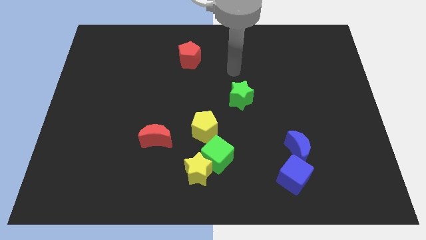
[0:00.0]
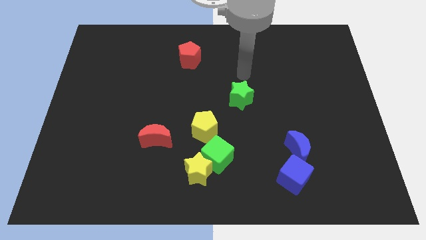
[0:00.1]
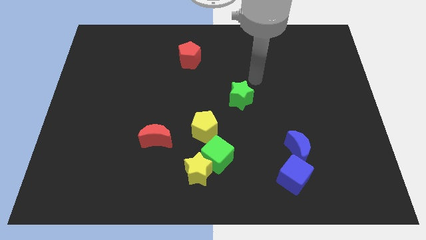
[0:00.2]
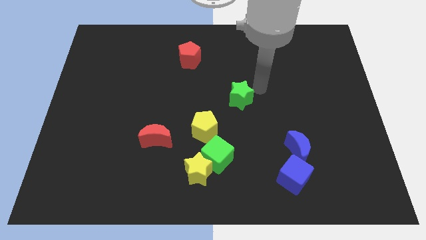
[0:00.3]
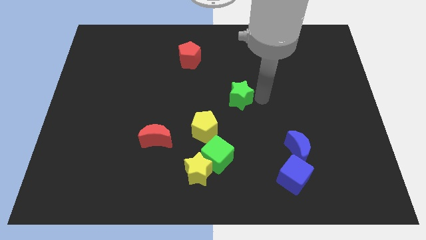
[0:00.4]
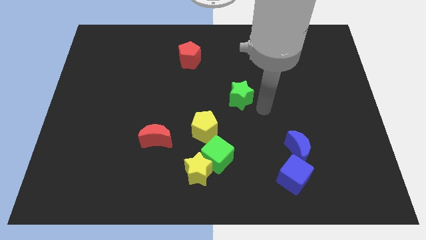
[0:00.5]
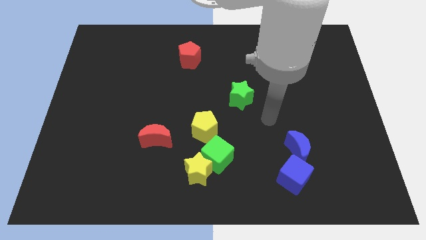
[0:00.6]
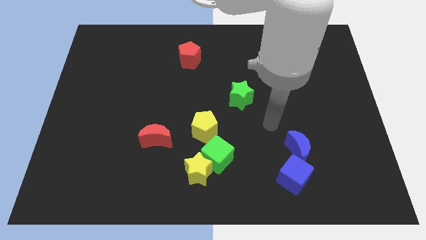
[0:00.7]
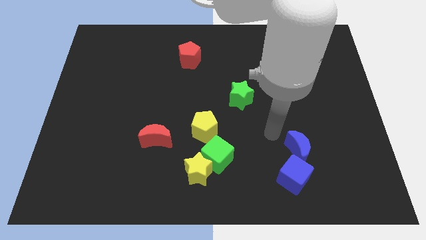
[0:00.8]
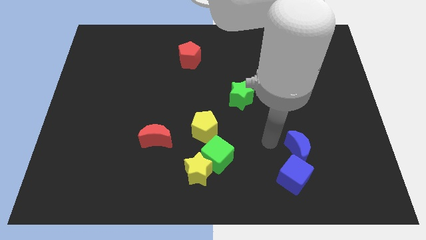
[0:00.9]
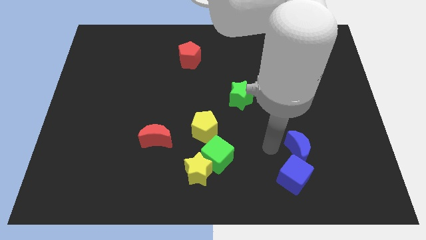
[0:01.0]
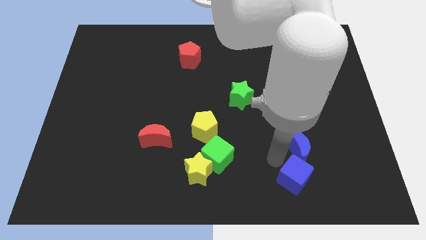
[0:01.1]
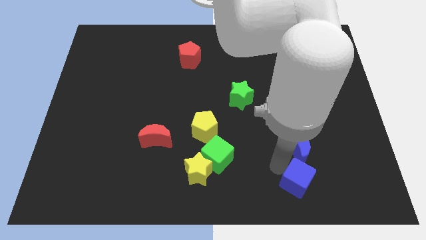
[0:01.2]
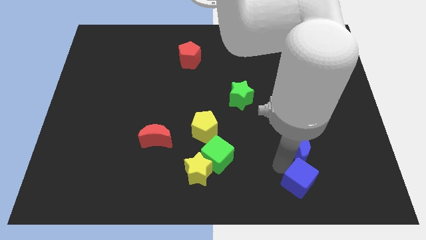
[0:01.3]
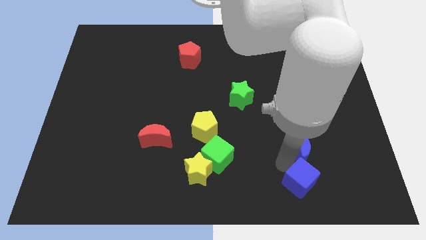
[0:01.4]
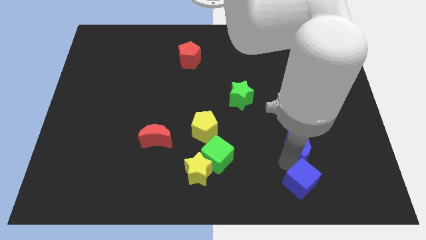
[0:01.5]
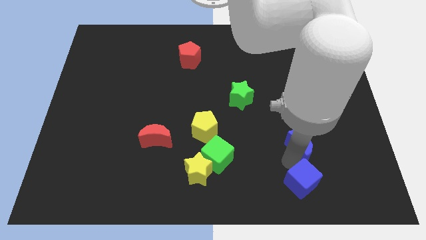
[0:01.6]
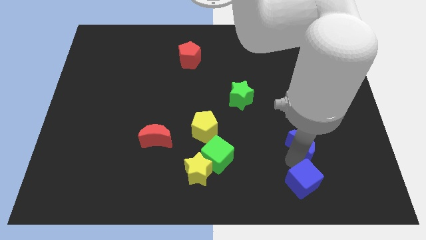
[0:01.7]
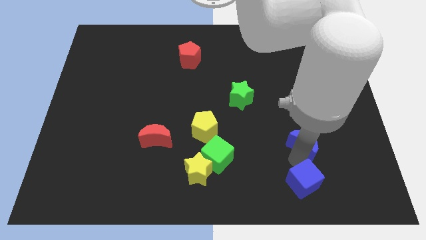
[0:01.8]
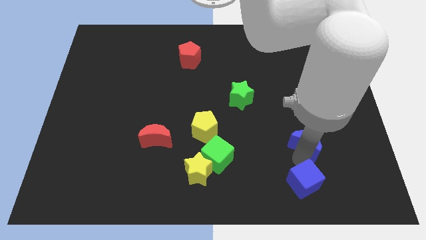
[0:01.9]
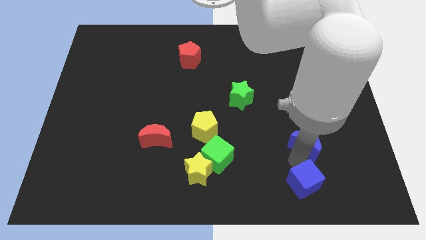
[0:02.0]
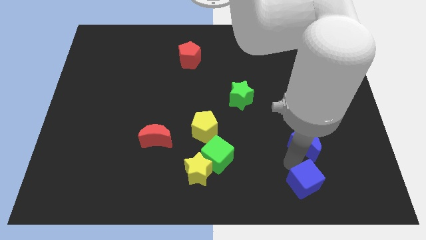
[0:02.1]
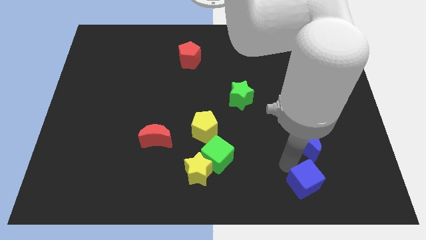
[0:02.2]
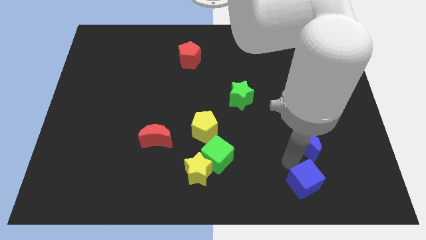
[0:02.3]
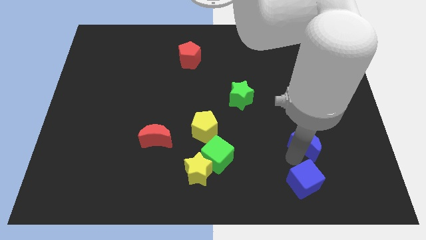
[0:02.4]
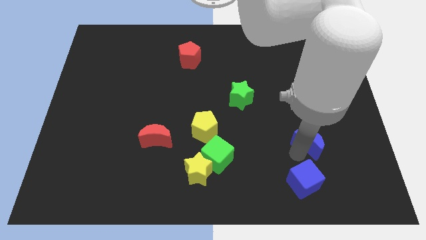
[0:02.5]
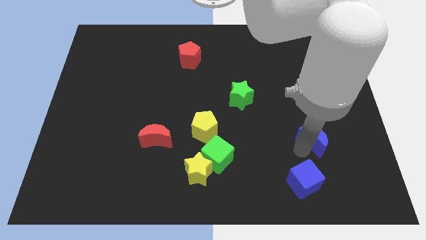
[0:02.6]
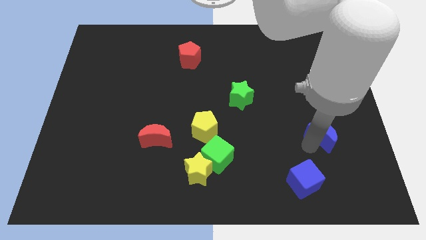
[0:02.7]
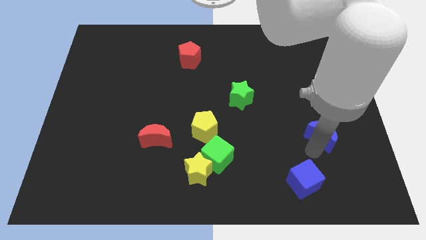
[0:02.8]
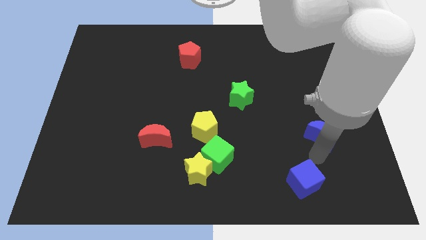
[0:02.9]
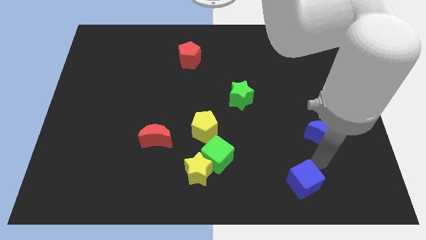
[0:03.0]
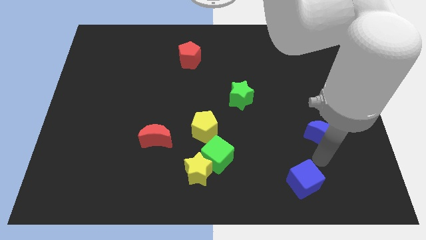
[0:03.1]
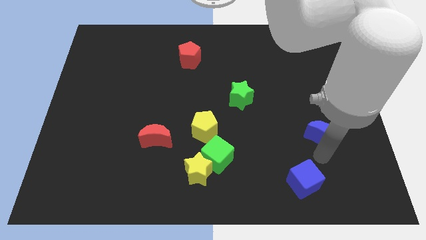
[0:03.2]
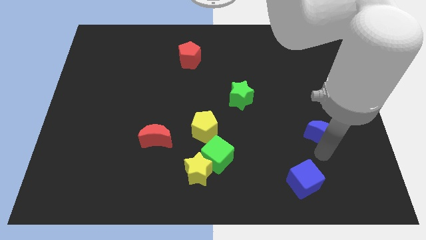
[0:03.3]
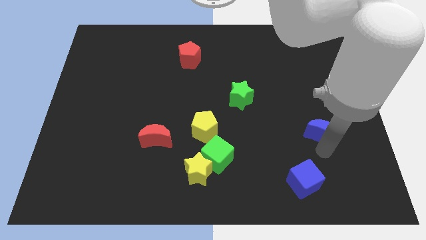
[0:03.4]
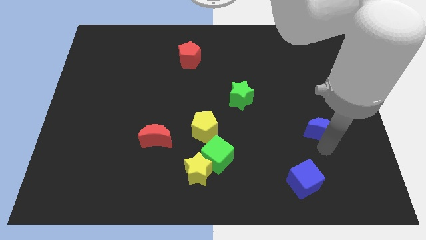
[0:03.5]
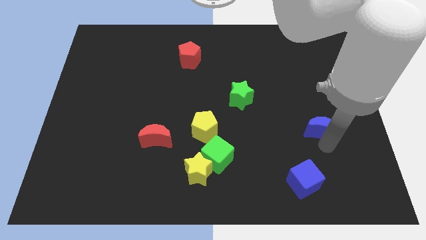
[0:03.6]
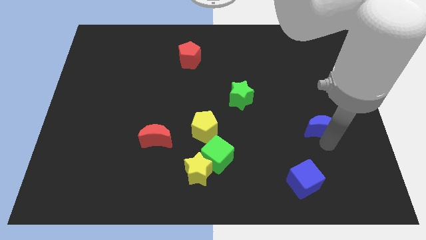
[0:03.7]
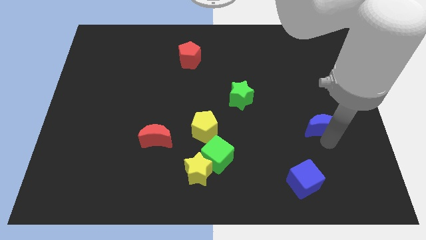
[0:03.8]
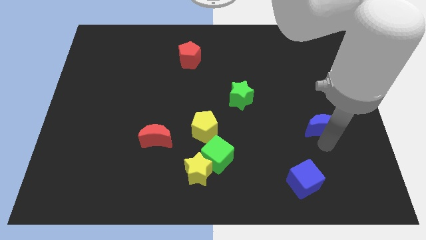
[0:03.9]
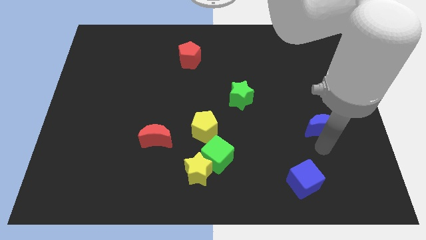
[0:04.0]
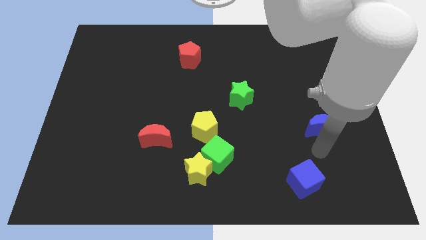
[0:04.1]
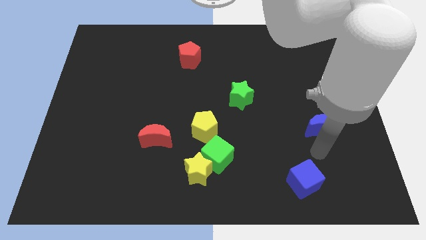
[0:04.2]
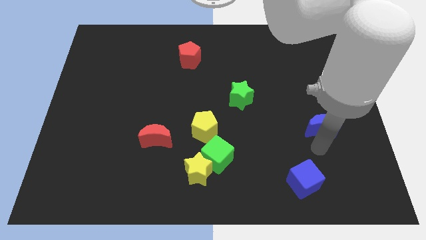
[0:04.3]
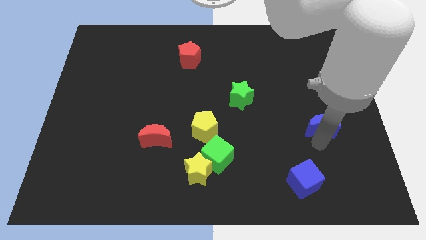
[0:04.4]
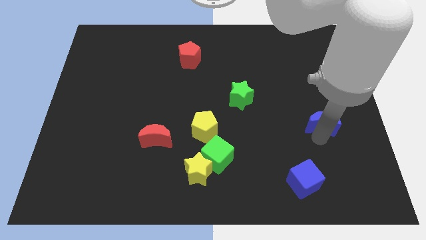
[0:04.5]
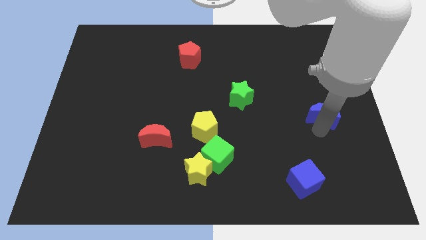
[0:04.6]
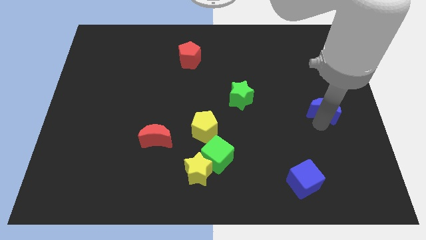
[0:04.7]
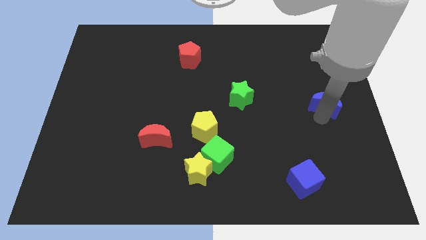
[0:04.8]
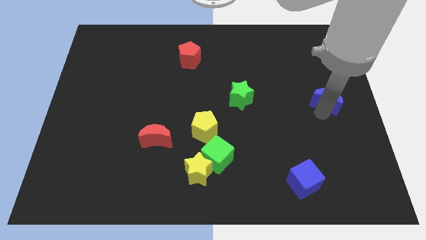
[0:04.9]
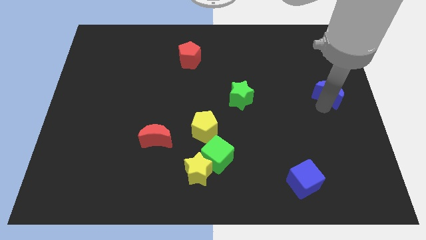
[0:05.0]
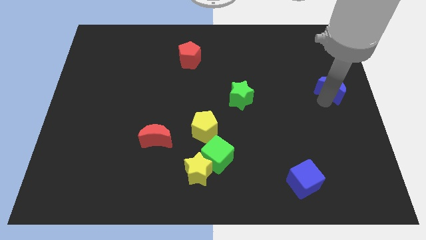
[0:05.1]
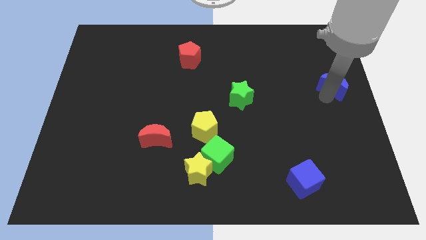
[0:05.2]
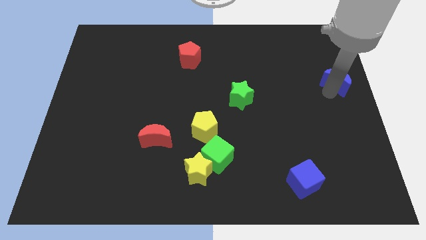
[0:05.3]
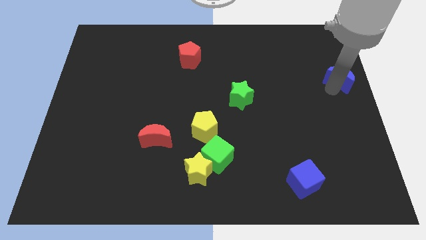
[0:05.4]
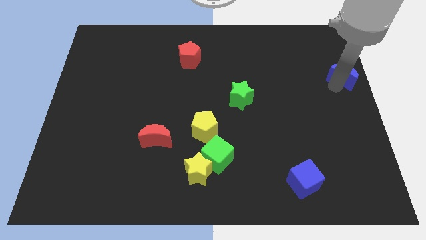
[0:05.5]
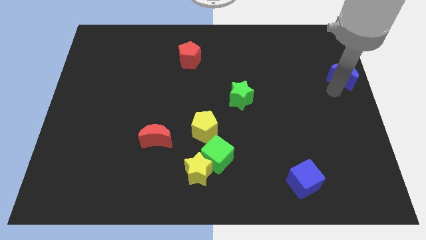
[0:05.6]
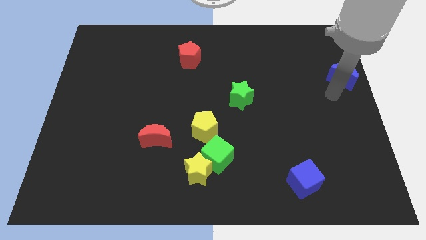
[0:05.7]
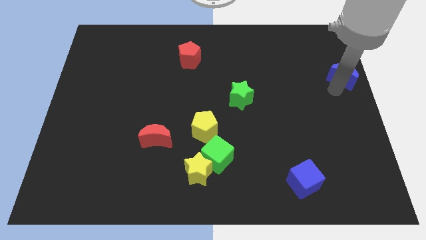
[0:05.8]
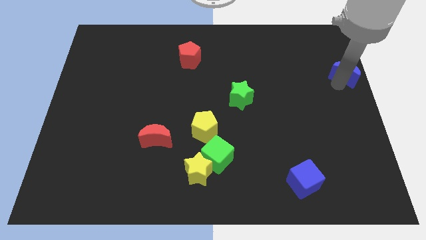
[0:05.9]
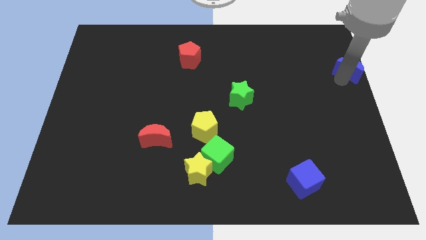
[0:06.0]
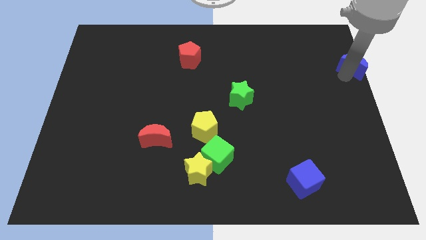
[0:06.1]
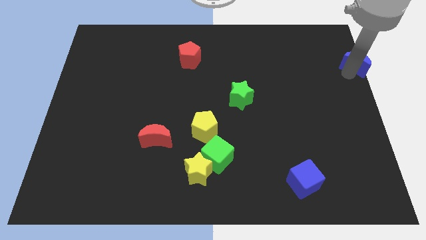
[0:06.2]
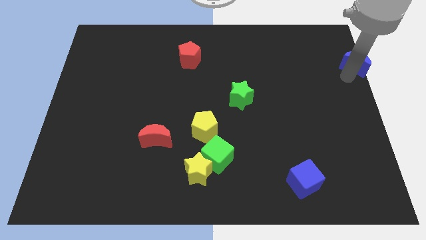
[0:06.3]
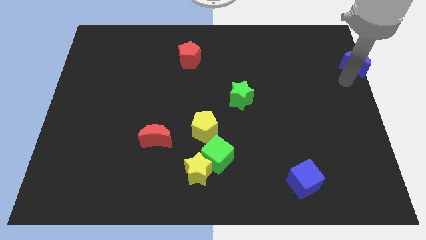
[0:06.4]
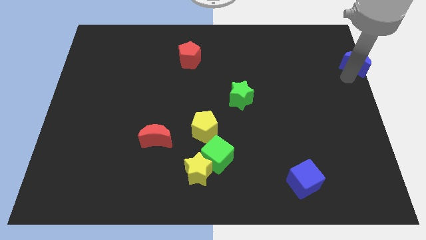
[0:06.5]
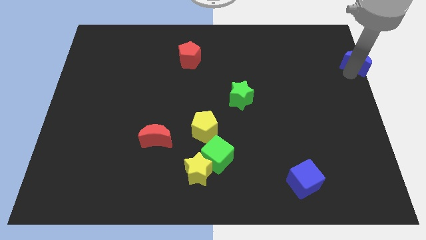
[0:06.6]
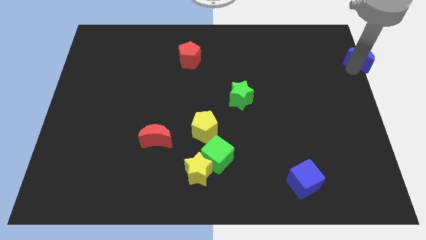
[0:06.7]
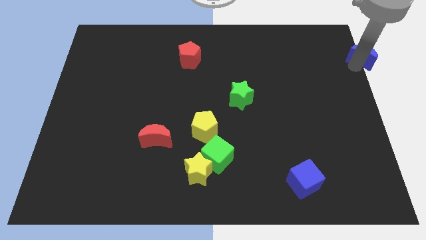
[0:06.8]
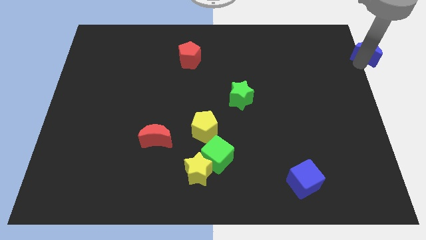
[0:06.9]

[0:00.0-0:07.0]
push the blue moon to the top right
